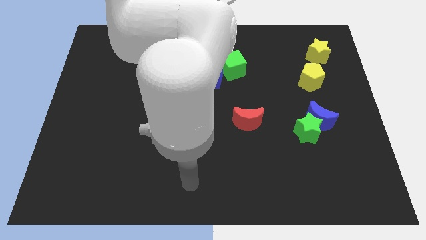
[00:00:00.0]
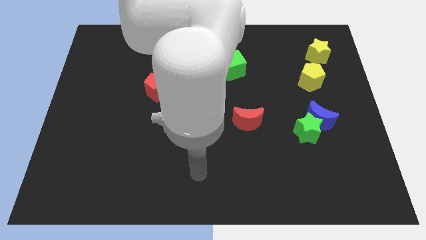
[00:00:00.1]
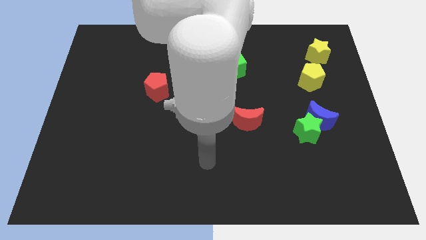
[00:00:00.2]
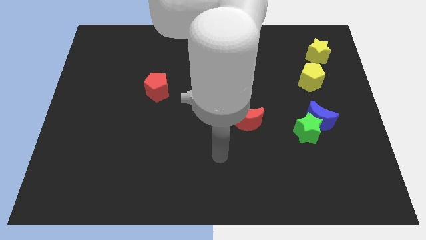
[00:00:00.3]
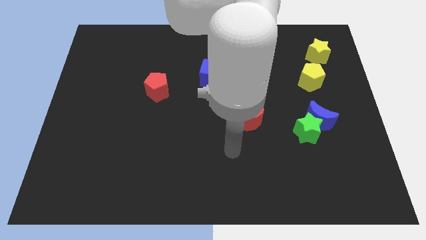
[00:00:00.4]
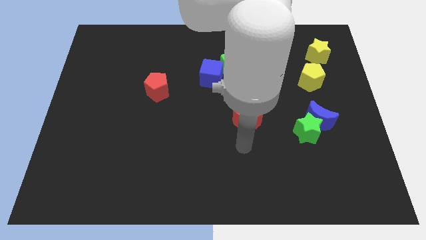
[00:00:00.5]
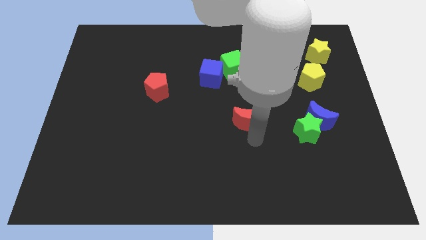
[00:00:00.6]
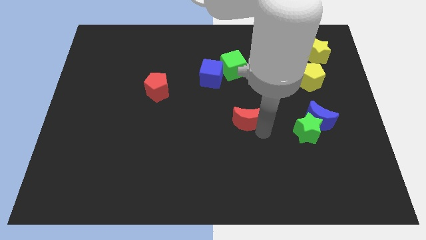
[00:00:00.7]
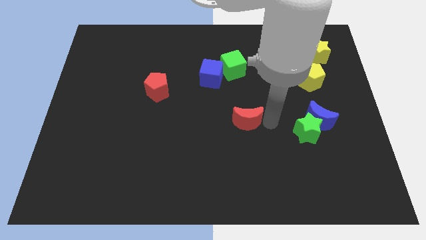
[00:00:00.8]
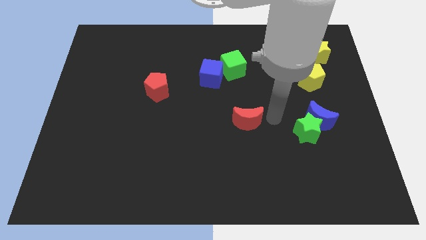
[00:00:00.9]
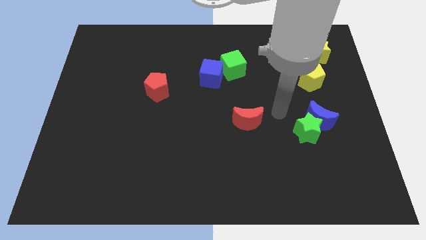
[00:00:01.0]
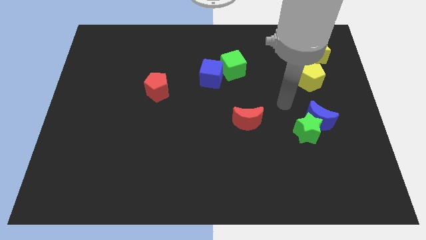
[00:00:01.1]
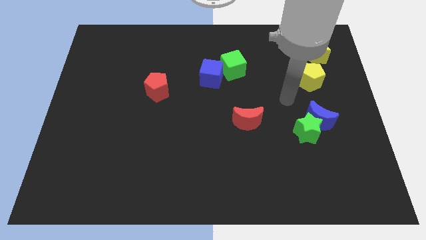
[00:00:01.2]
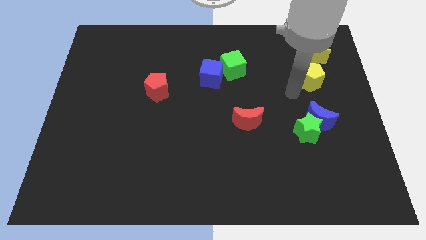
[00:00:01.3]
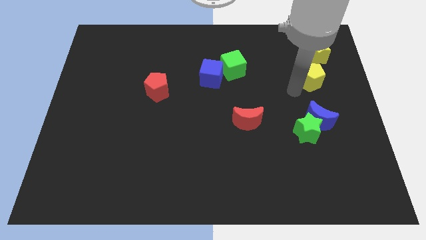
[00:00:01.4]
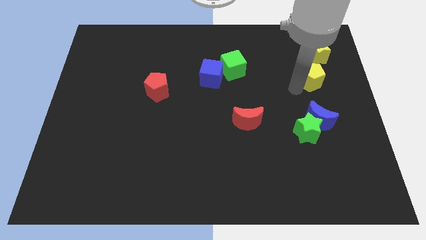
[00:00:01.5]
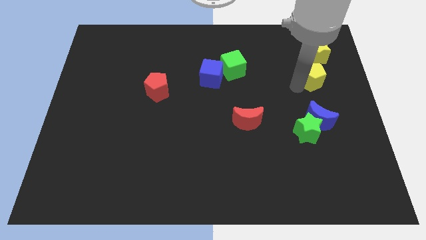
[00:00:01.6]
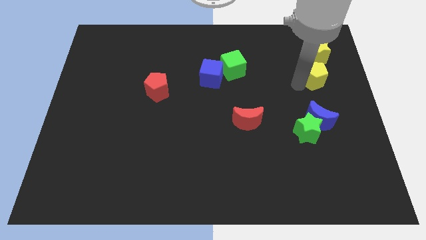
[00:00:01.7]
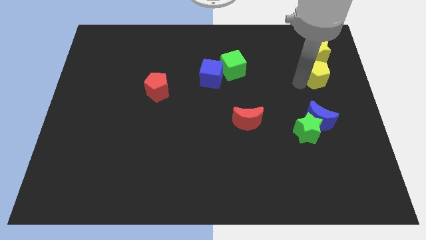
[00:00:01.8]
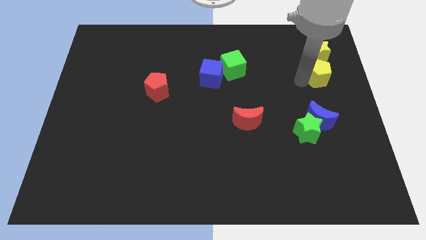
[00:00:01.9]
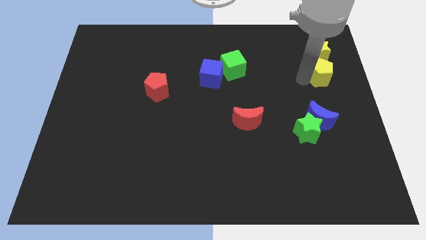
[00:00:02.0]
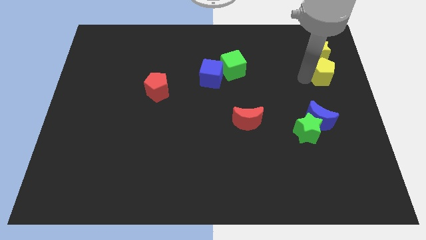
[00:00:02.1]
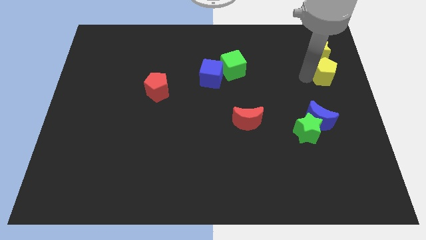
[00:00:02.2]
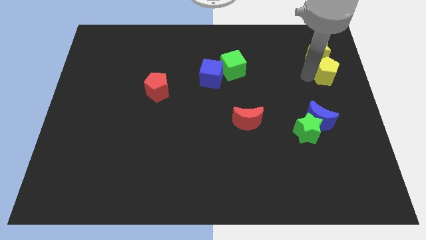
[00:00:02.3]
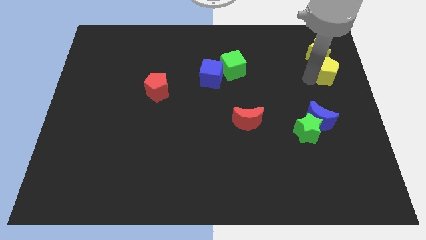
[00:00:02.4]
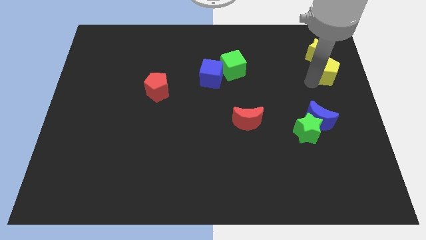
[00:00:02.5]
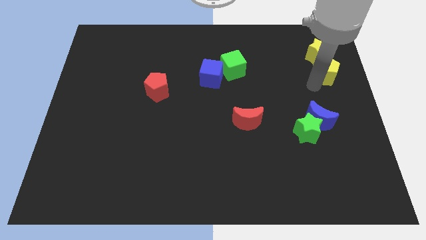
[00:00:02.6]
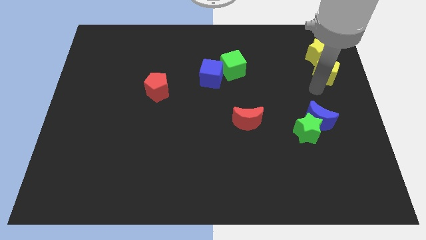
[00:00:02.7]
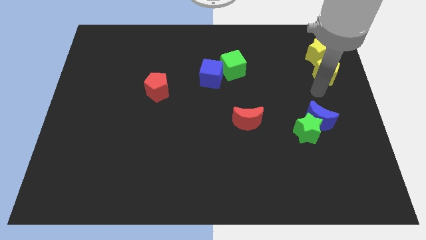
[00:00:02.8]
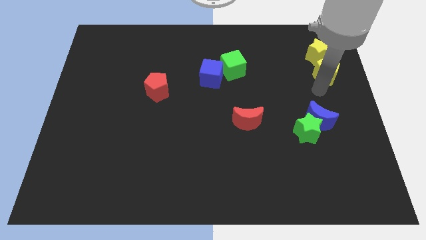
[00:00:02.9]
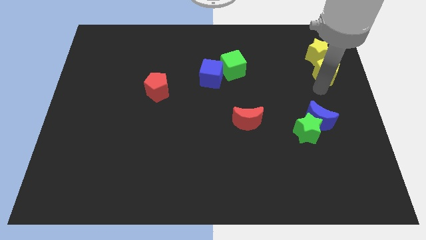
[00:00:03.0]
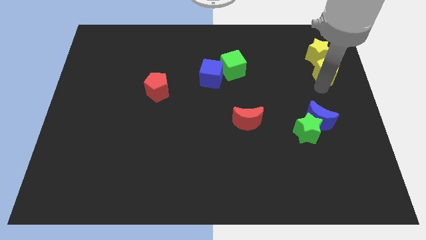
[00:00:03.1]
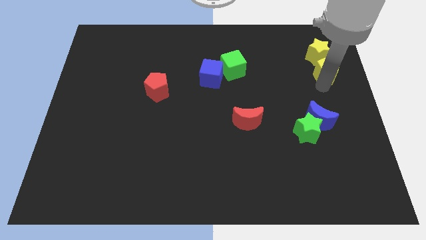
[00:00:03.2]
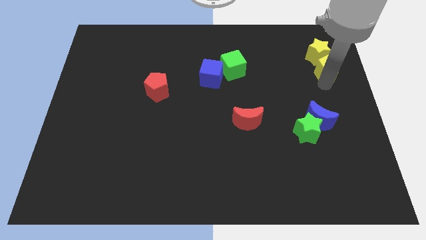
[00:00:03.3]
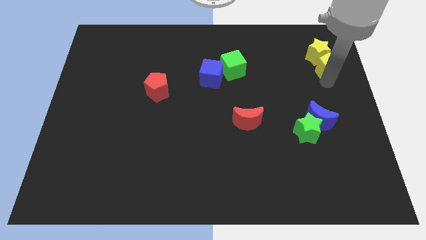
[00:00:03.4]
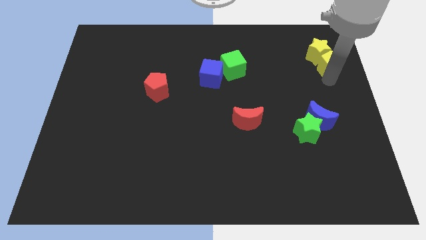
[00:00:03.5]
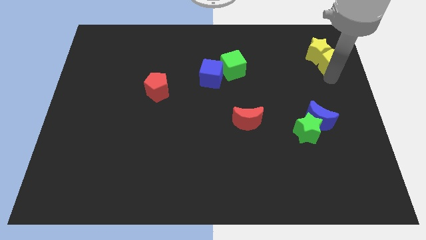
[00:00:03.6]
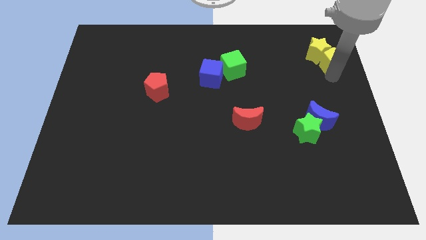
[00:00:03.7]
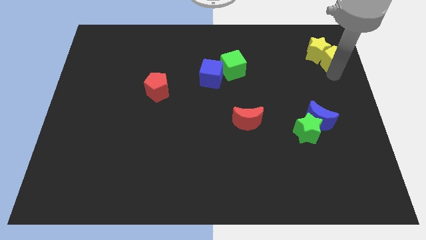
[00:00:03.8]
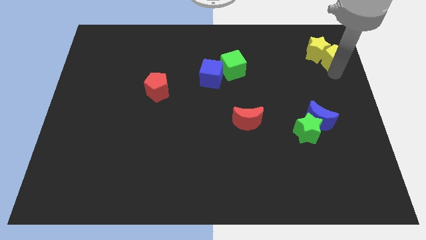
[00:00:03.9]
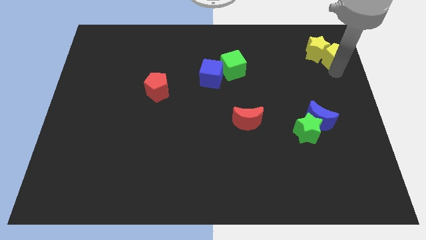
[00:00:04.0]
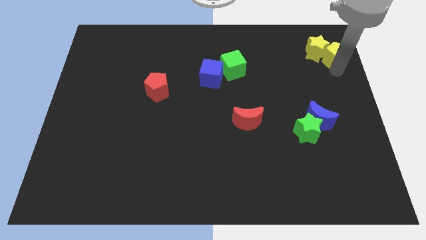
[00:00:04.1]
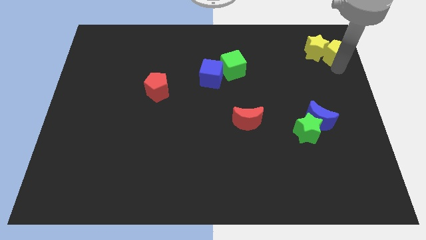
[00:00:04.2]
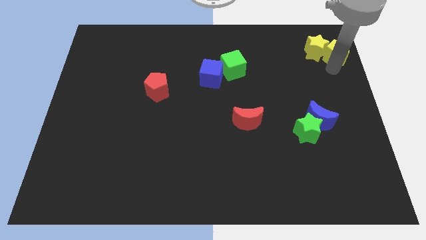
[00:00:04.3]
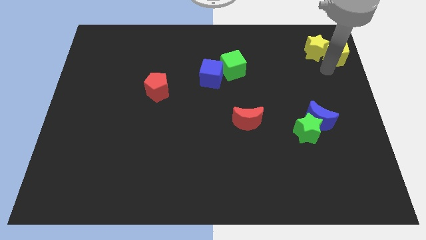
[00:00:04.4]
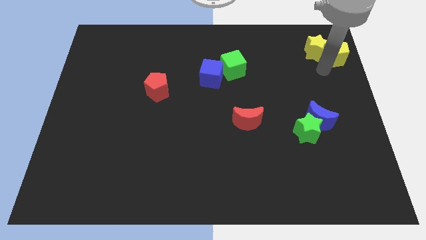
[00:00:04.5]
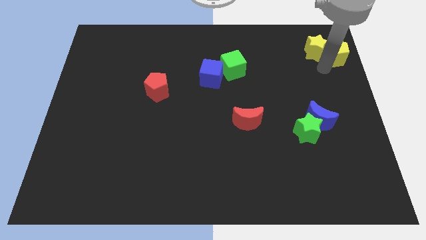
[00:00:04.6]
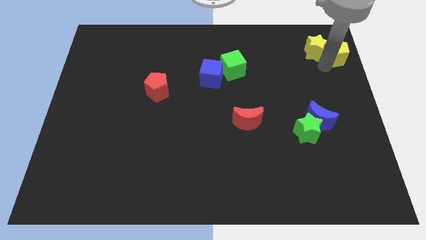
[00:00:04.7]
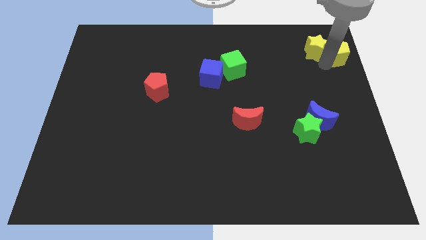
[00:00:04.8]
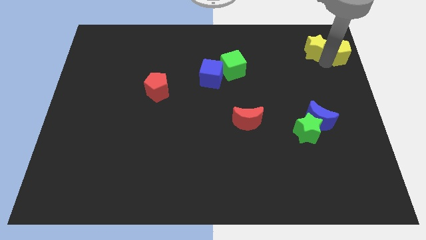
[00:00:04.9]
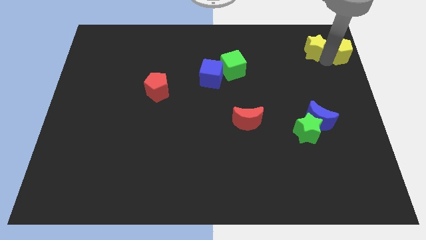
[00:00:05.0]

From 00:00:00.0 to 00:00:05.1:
slide the yellow pentagon to the top right corner
